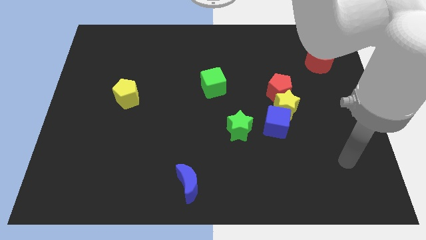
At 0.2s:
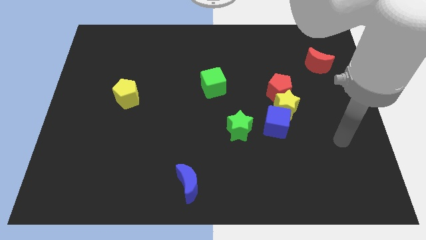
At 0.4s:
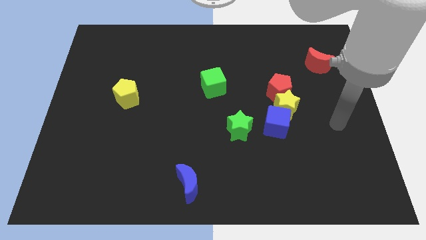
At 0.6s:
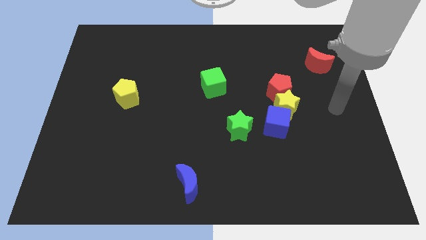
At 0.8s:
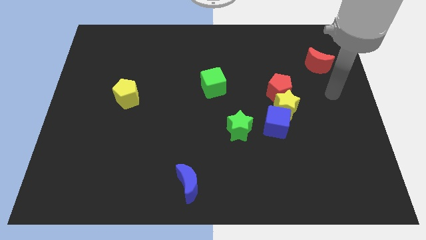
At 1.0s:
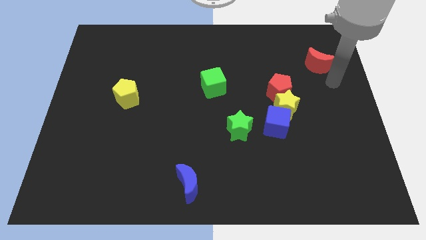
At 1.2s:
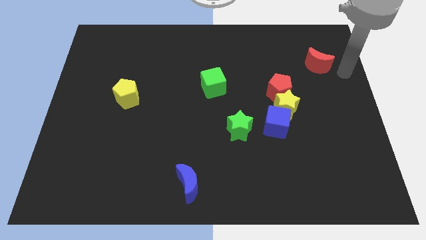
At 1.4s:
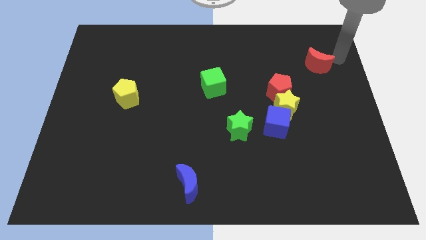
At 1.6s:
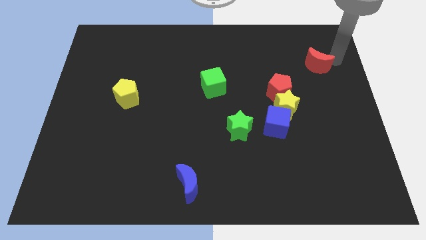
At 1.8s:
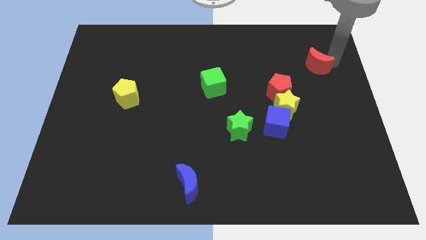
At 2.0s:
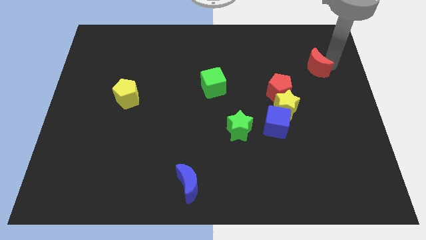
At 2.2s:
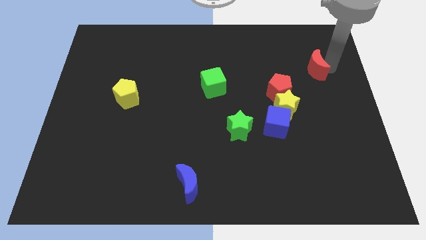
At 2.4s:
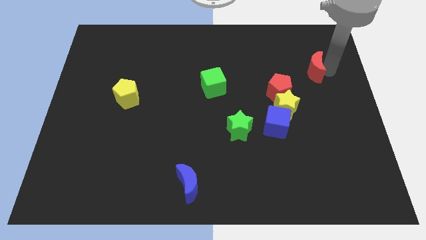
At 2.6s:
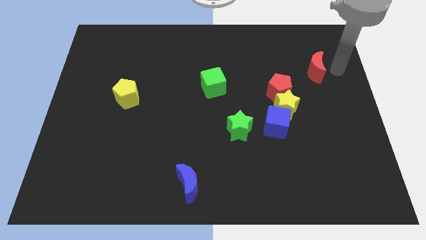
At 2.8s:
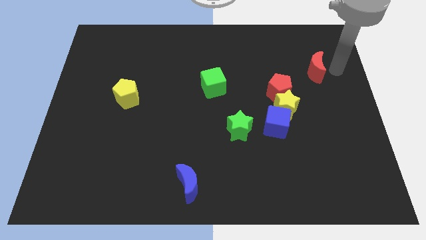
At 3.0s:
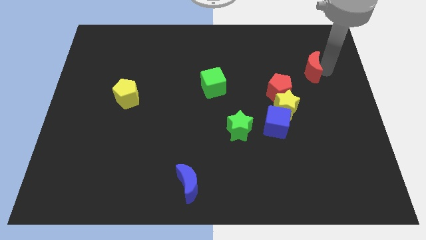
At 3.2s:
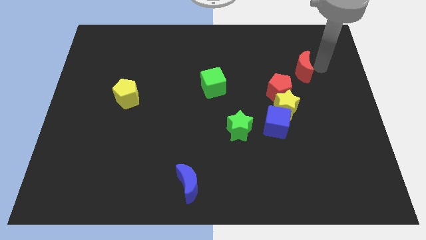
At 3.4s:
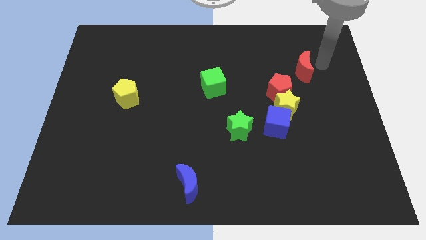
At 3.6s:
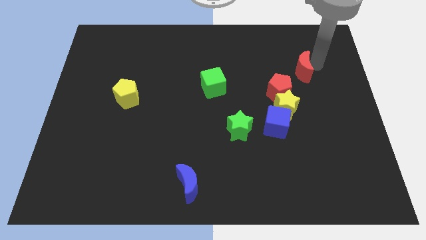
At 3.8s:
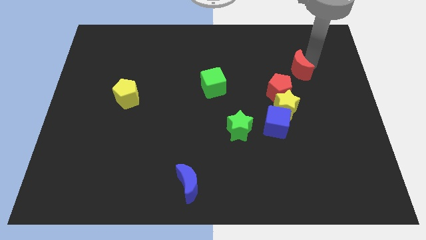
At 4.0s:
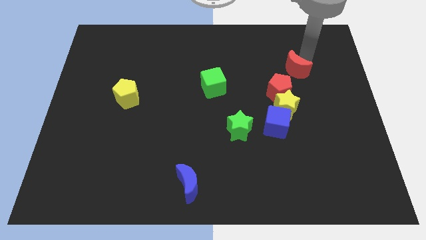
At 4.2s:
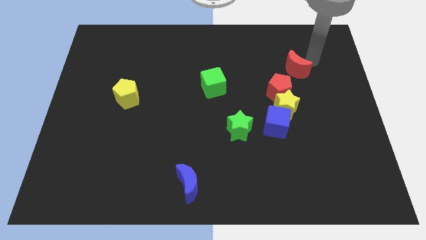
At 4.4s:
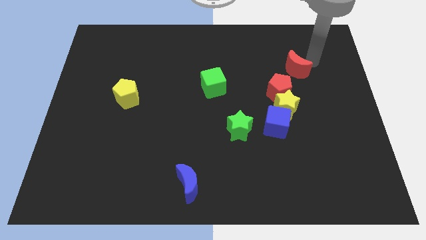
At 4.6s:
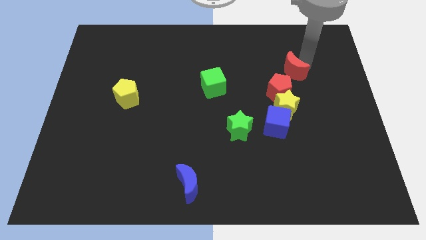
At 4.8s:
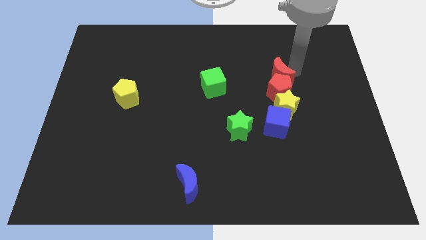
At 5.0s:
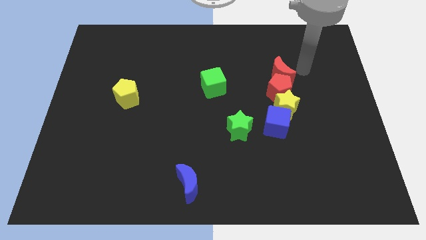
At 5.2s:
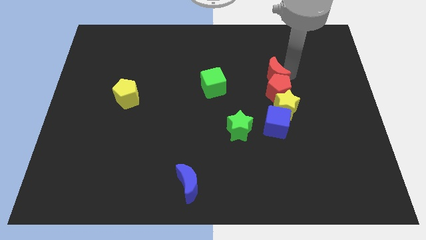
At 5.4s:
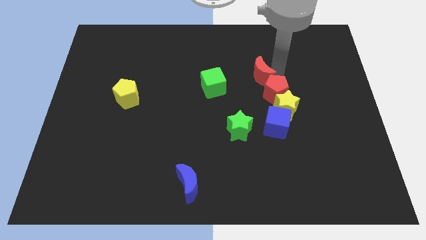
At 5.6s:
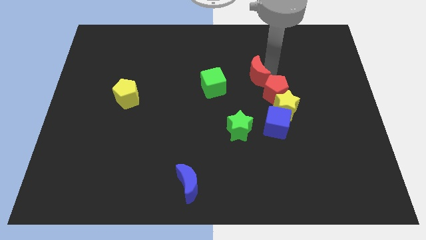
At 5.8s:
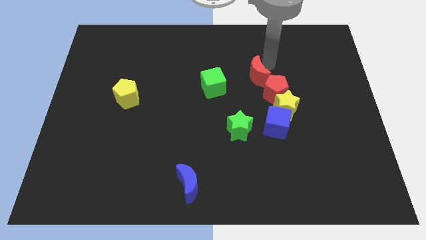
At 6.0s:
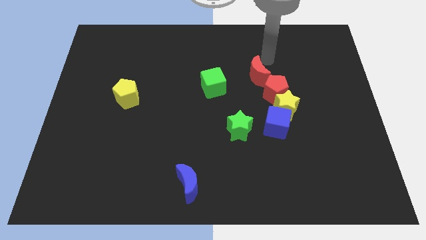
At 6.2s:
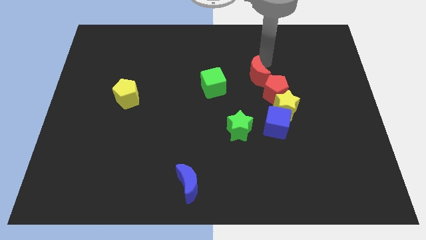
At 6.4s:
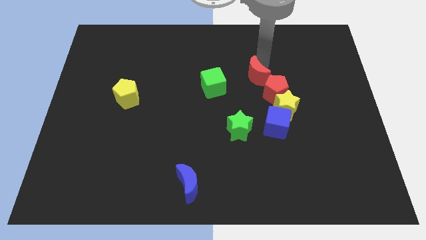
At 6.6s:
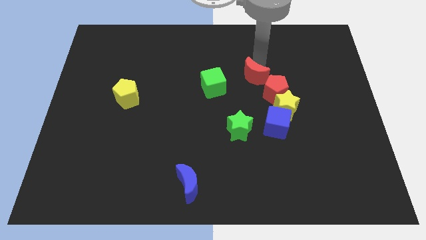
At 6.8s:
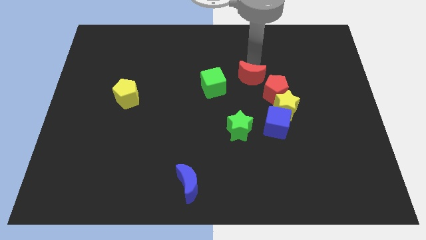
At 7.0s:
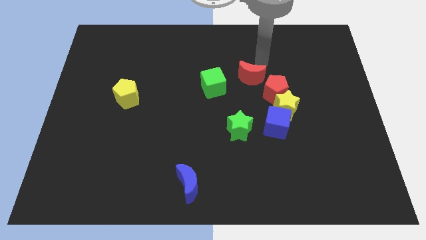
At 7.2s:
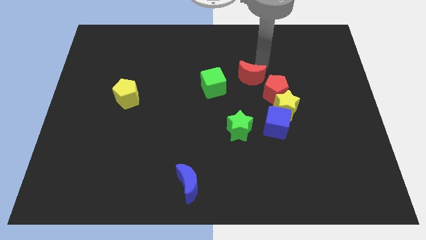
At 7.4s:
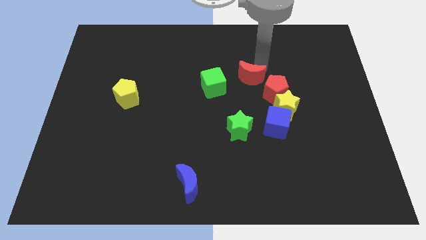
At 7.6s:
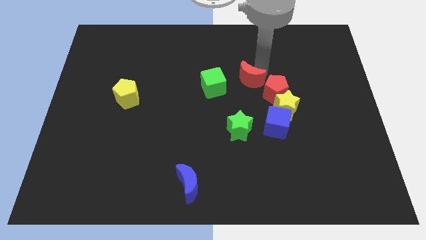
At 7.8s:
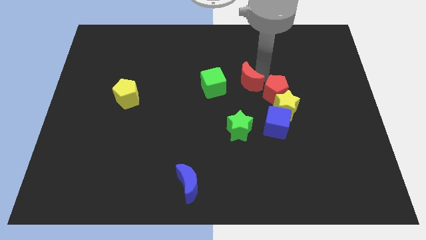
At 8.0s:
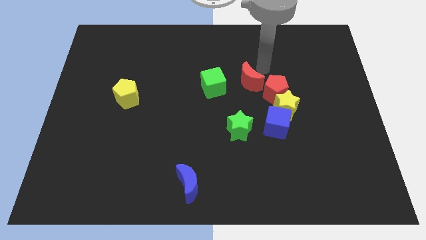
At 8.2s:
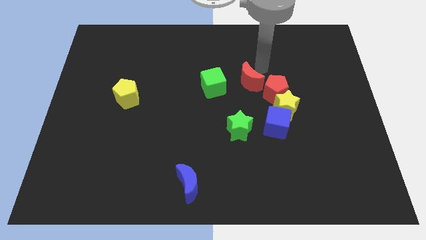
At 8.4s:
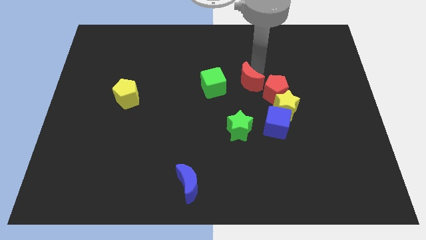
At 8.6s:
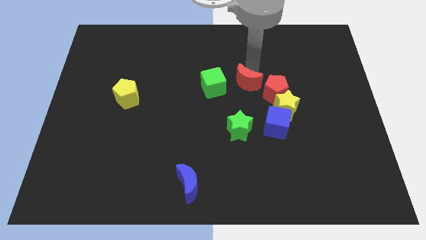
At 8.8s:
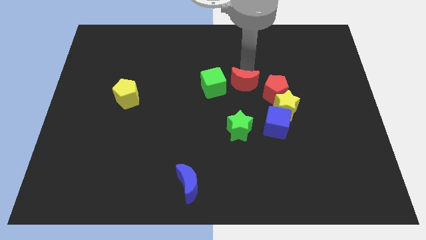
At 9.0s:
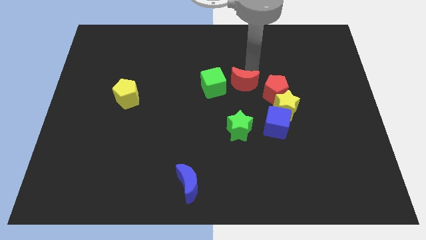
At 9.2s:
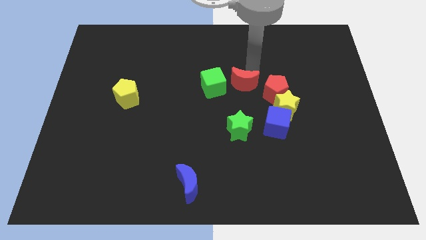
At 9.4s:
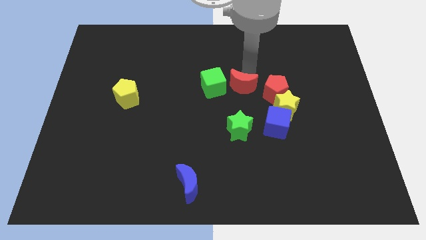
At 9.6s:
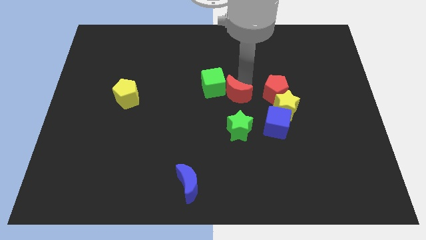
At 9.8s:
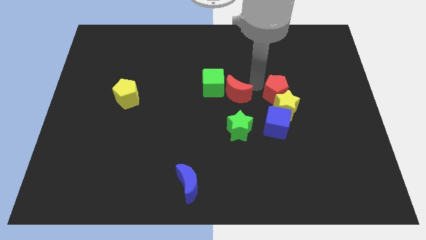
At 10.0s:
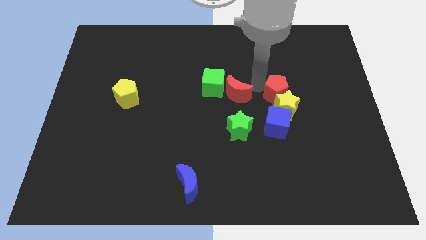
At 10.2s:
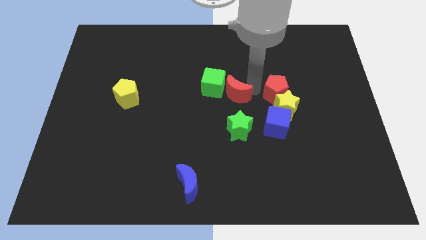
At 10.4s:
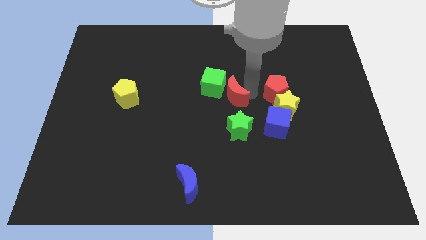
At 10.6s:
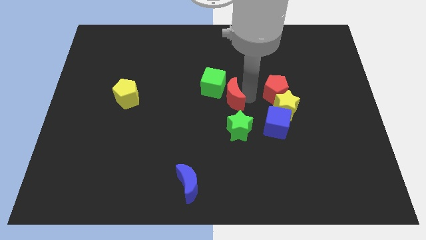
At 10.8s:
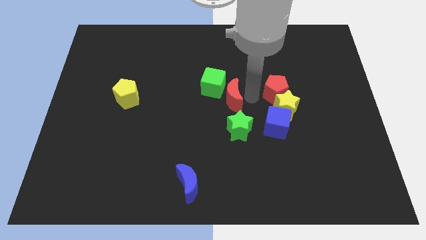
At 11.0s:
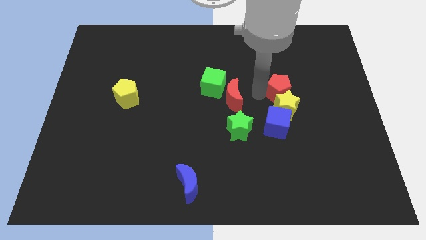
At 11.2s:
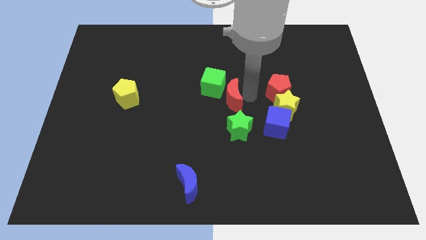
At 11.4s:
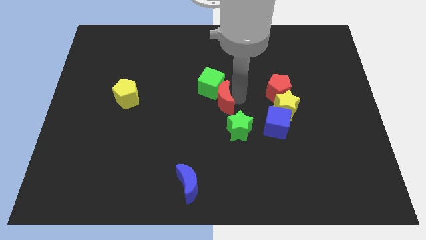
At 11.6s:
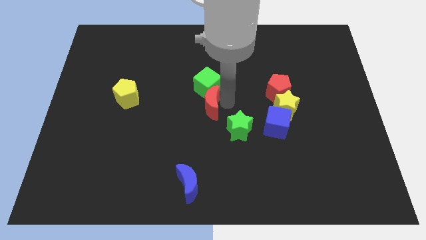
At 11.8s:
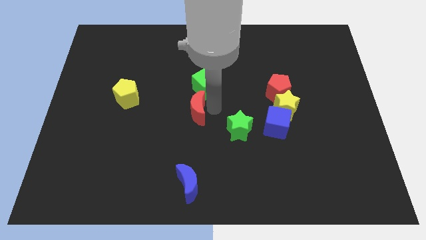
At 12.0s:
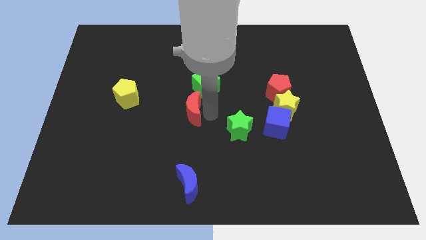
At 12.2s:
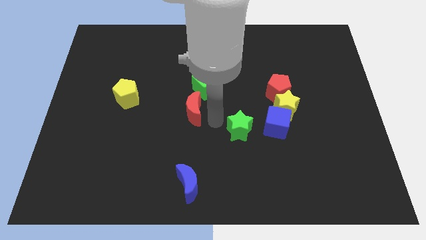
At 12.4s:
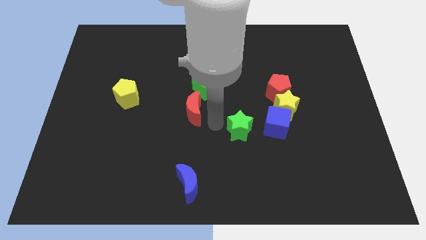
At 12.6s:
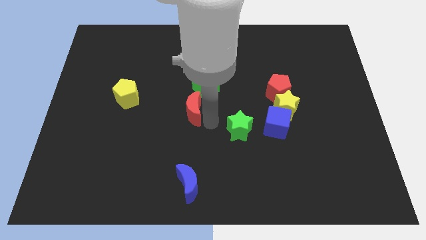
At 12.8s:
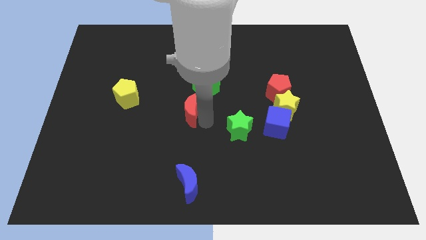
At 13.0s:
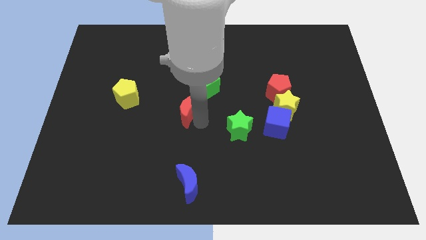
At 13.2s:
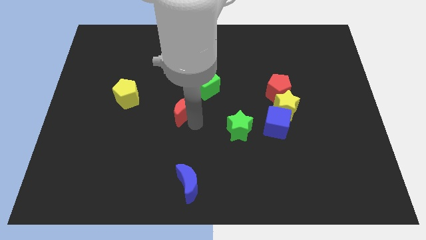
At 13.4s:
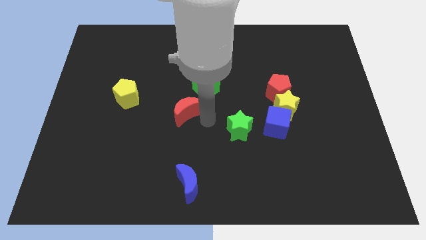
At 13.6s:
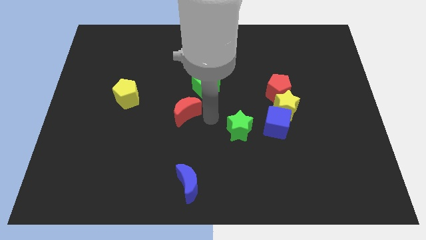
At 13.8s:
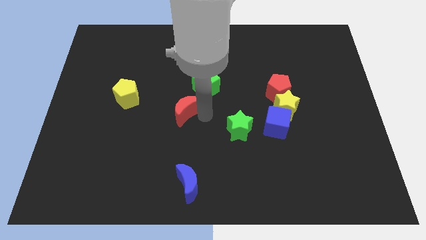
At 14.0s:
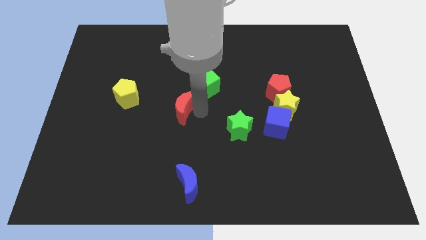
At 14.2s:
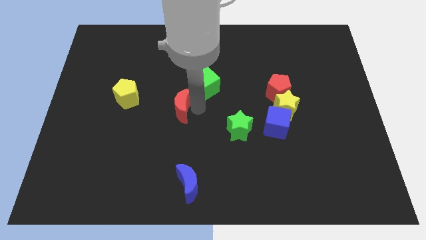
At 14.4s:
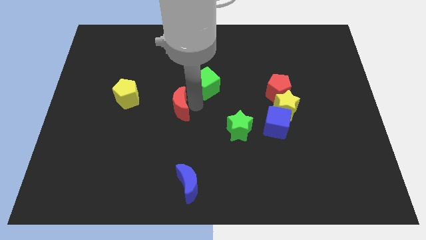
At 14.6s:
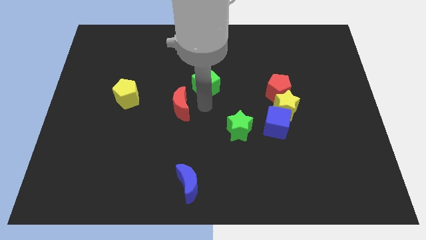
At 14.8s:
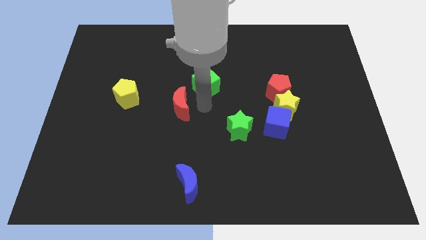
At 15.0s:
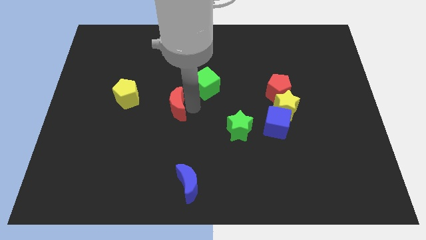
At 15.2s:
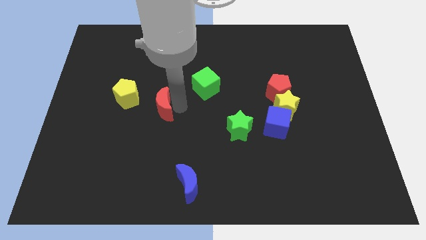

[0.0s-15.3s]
slide the red moon to the bottom right side of the yellow pentagon
